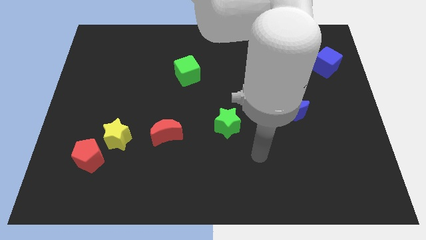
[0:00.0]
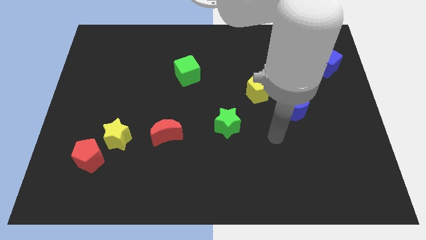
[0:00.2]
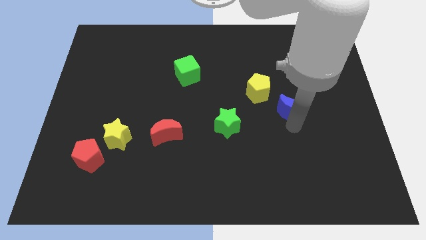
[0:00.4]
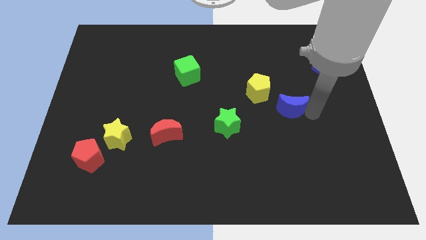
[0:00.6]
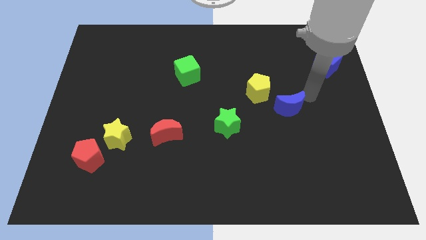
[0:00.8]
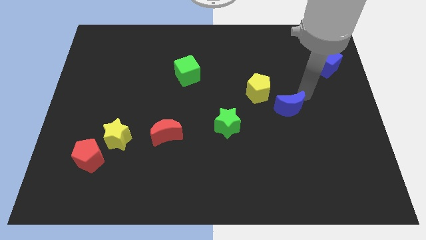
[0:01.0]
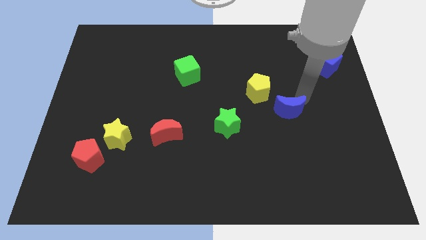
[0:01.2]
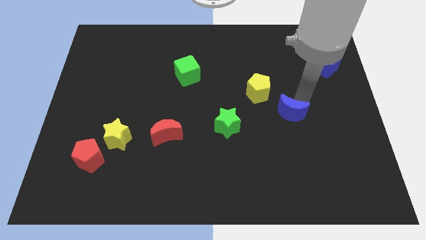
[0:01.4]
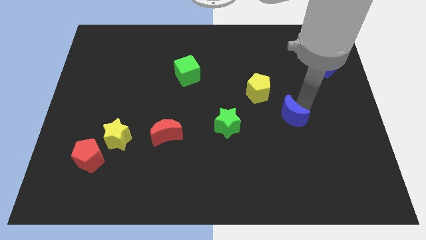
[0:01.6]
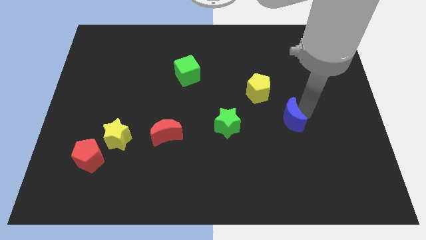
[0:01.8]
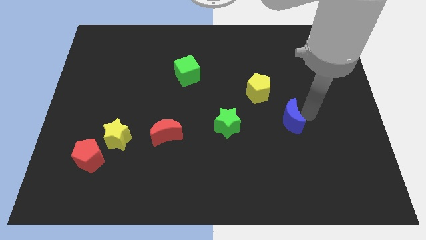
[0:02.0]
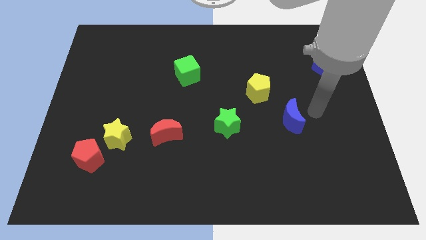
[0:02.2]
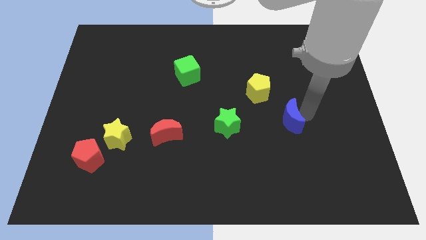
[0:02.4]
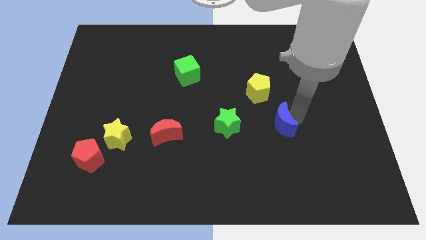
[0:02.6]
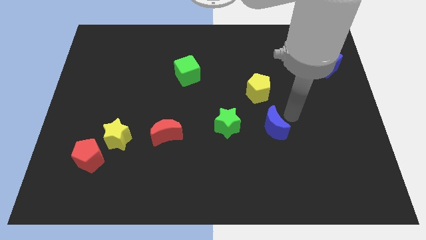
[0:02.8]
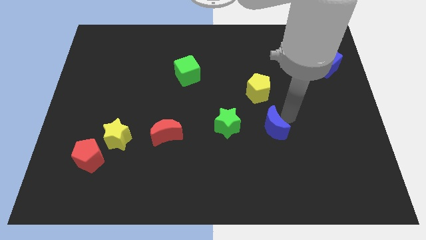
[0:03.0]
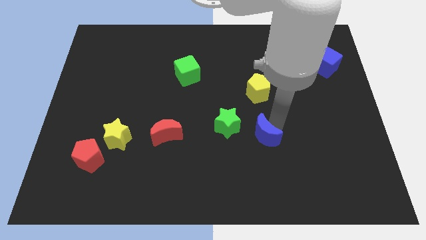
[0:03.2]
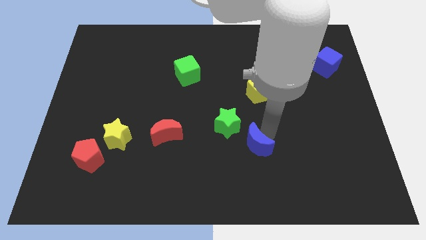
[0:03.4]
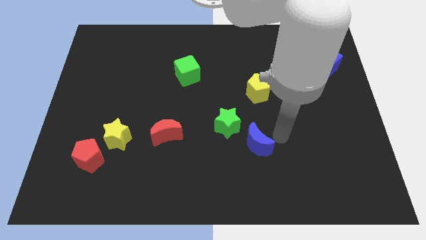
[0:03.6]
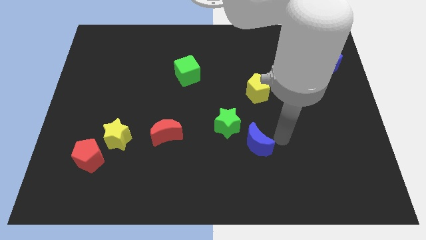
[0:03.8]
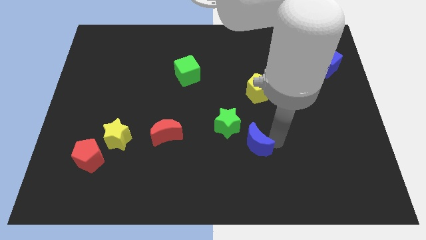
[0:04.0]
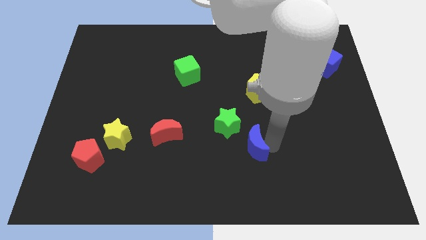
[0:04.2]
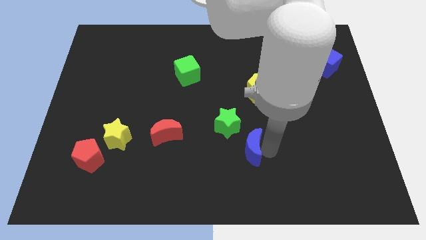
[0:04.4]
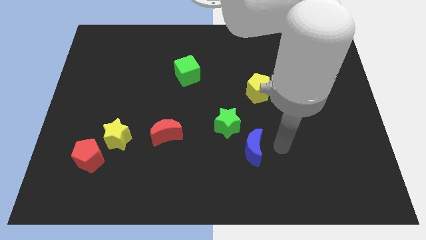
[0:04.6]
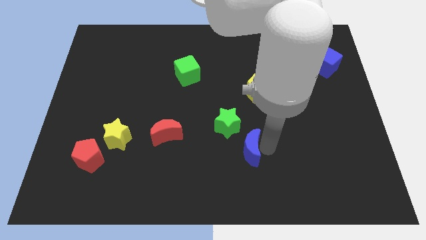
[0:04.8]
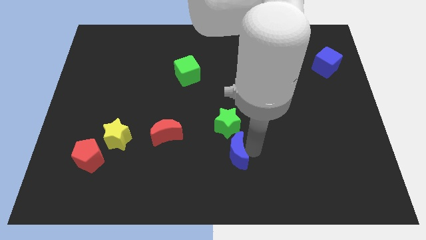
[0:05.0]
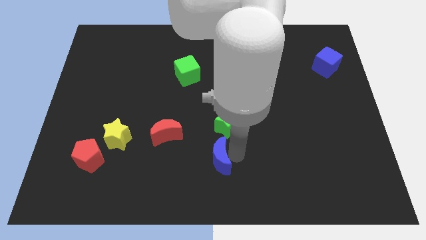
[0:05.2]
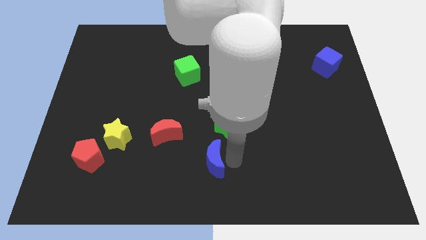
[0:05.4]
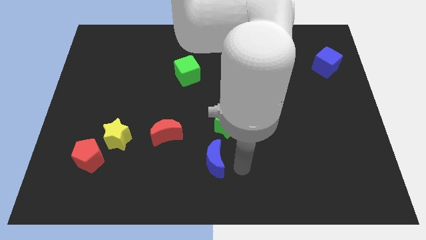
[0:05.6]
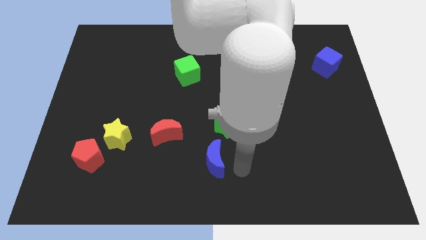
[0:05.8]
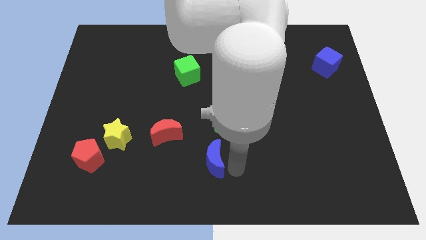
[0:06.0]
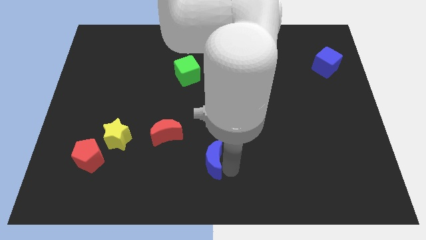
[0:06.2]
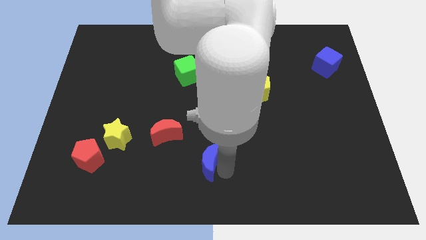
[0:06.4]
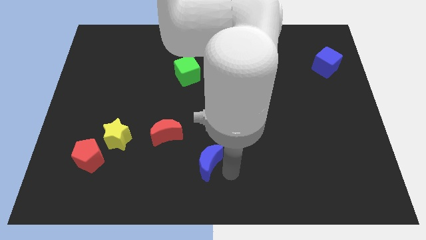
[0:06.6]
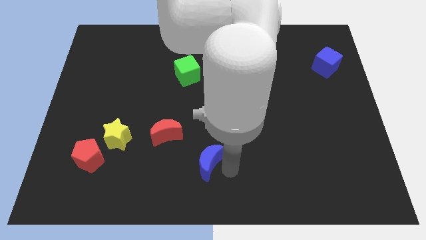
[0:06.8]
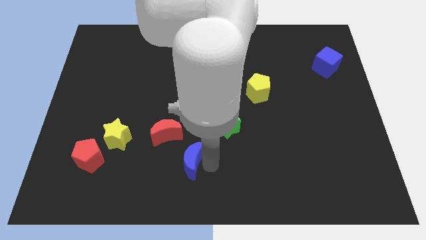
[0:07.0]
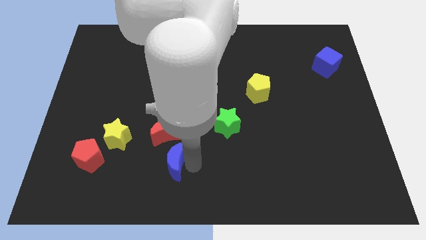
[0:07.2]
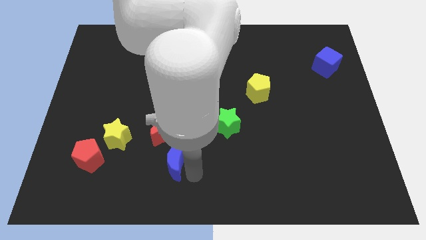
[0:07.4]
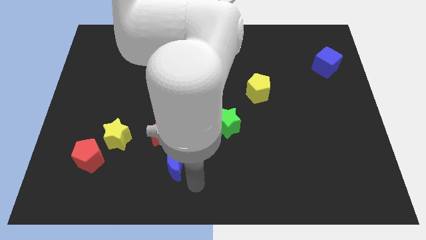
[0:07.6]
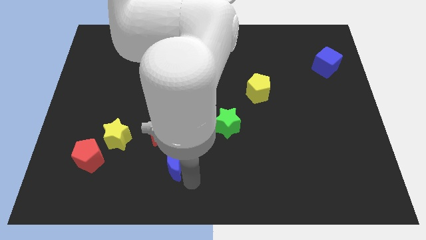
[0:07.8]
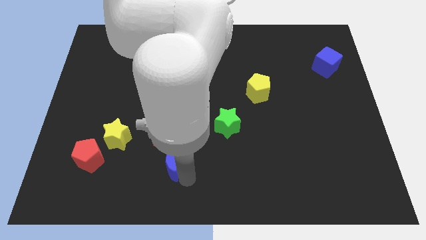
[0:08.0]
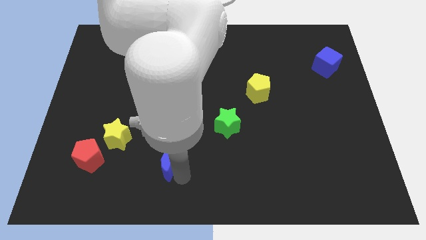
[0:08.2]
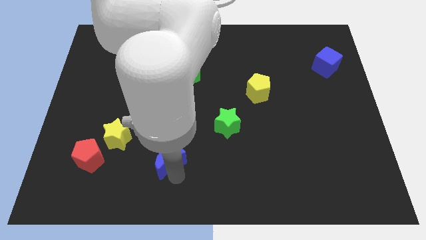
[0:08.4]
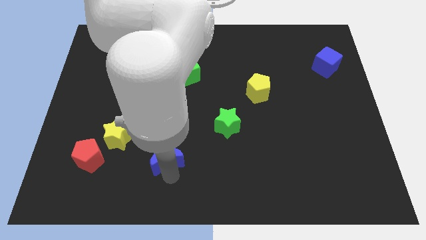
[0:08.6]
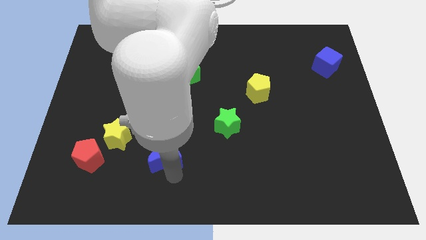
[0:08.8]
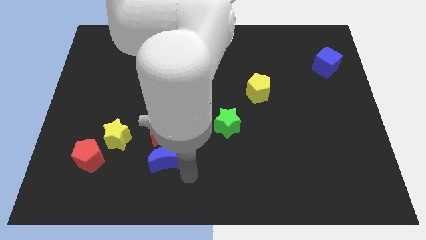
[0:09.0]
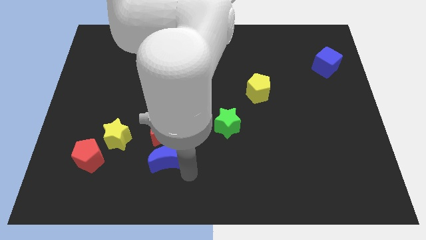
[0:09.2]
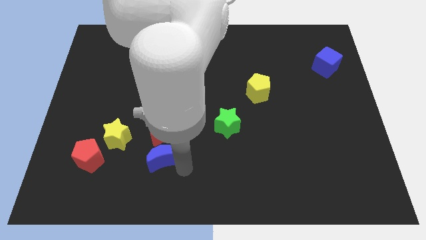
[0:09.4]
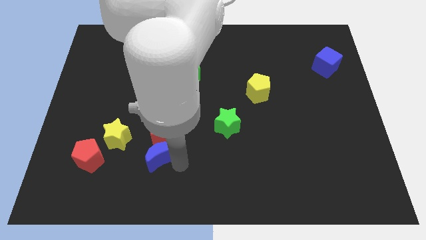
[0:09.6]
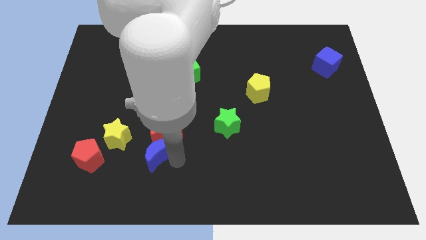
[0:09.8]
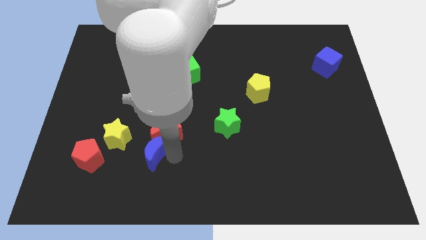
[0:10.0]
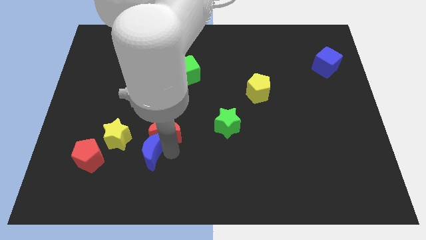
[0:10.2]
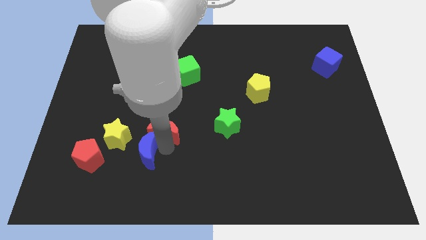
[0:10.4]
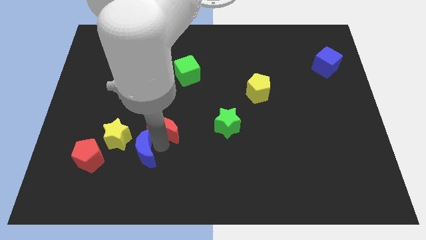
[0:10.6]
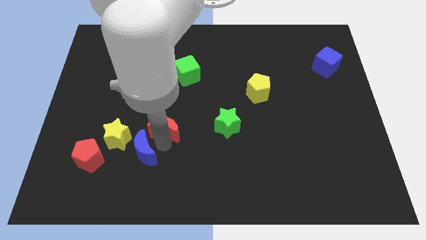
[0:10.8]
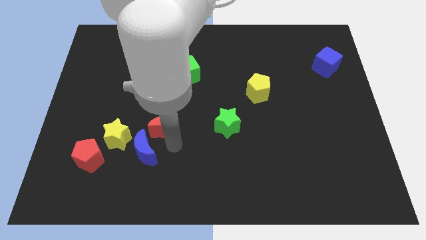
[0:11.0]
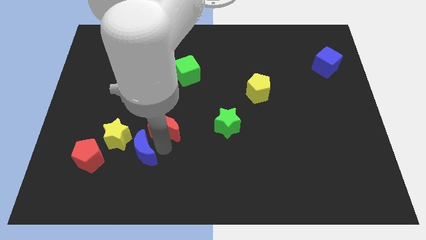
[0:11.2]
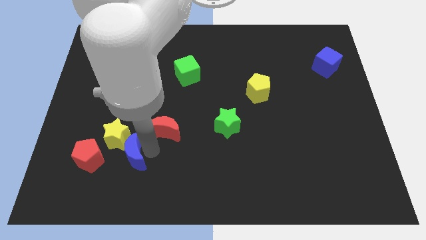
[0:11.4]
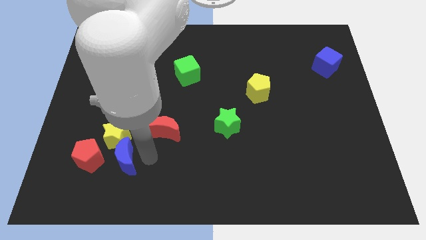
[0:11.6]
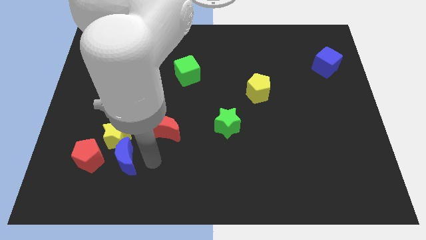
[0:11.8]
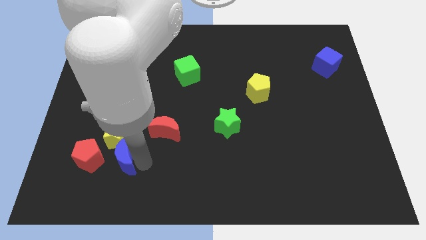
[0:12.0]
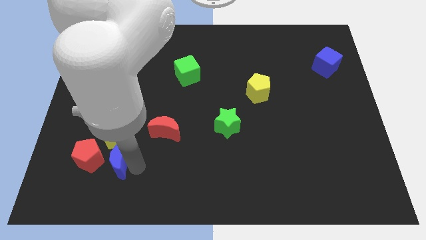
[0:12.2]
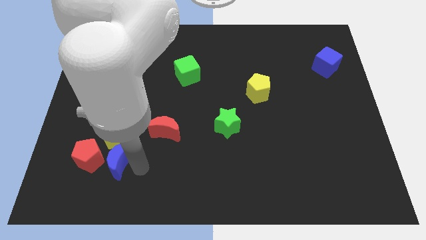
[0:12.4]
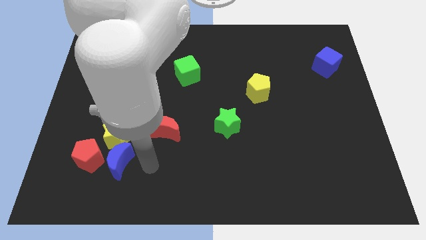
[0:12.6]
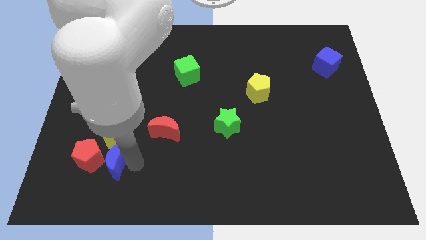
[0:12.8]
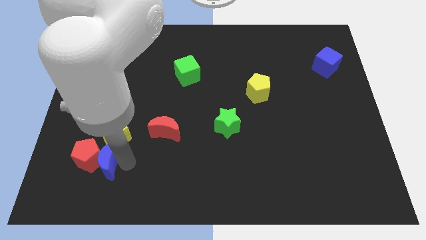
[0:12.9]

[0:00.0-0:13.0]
put the blue moon next to the red pentagon

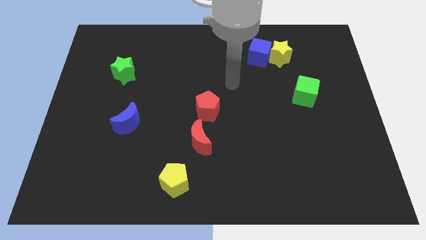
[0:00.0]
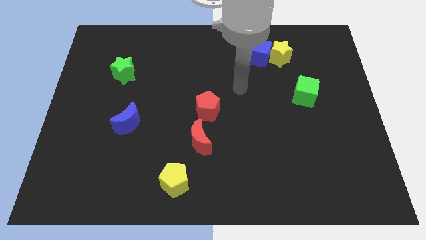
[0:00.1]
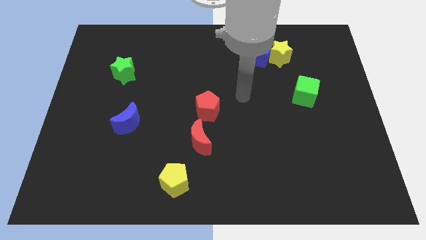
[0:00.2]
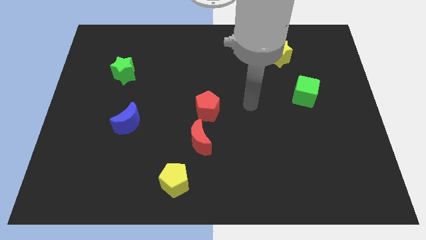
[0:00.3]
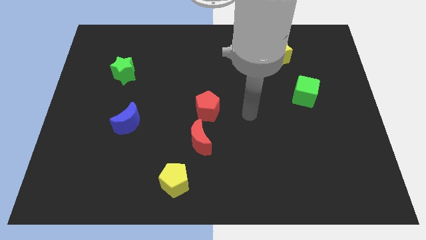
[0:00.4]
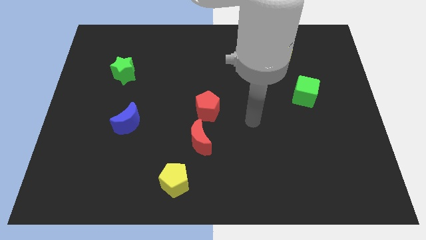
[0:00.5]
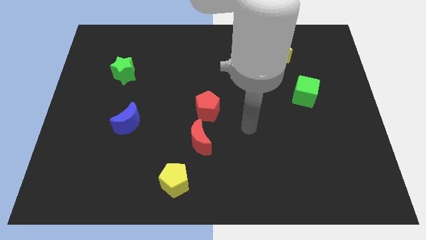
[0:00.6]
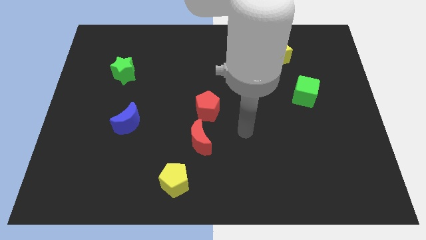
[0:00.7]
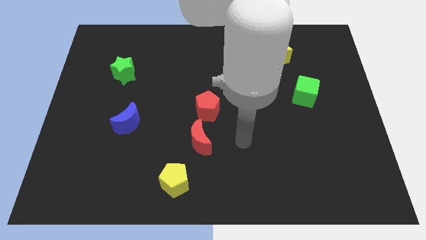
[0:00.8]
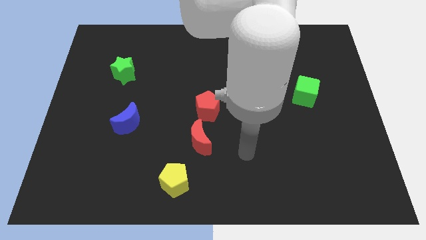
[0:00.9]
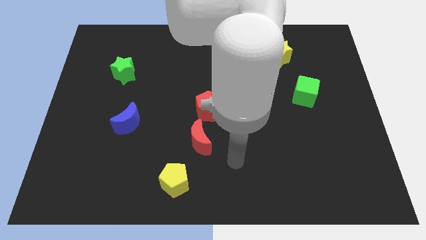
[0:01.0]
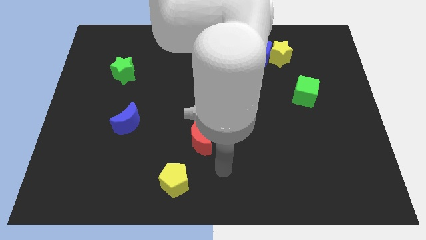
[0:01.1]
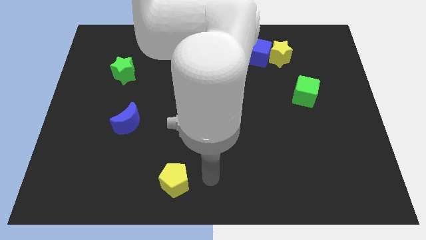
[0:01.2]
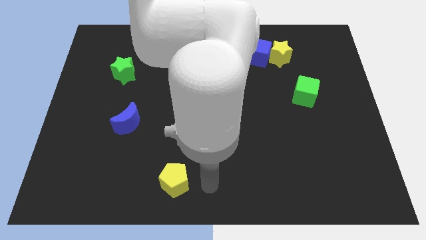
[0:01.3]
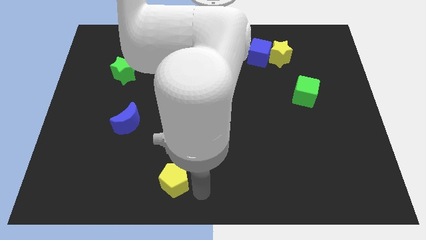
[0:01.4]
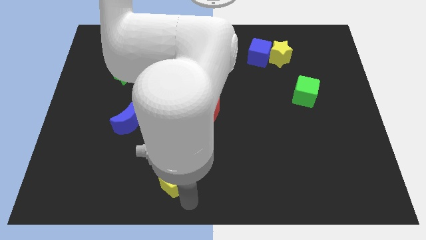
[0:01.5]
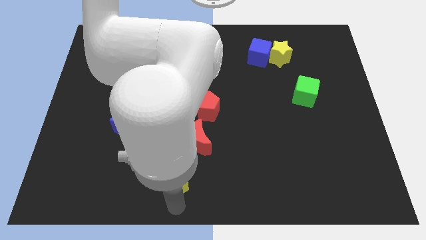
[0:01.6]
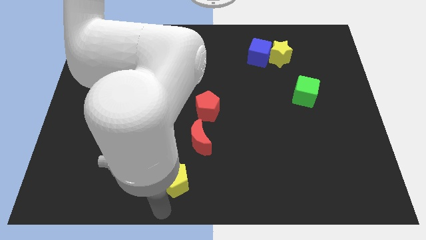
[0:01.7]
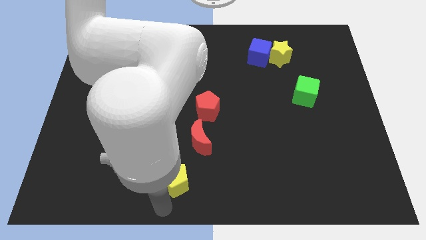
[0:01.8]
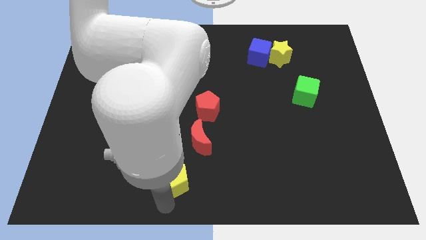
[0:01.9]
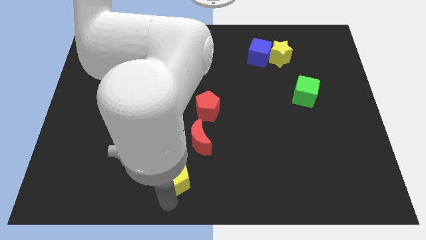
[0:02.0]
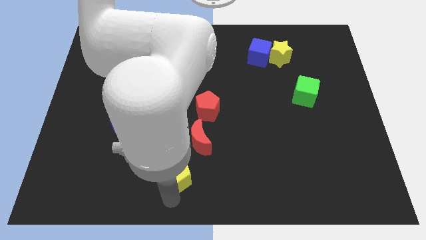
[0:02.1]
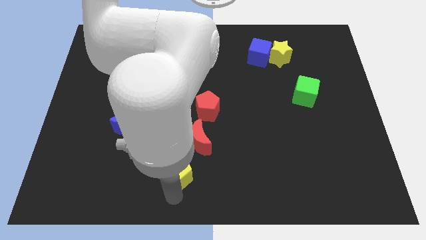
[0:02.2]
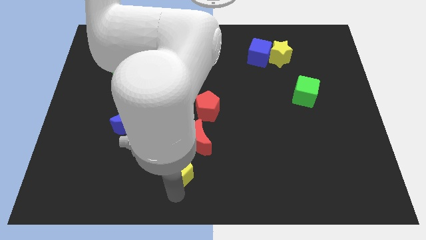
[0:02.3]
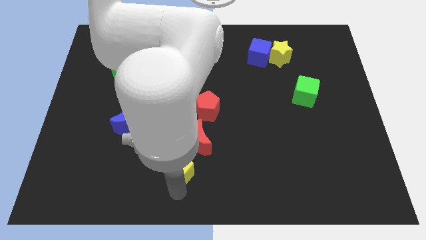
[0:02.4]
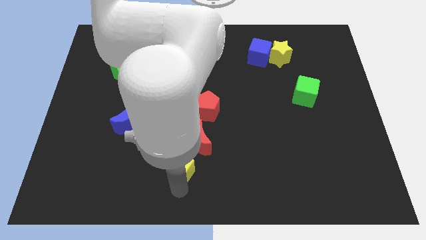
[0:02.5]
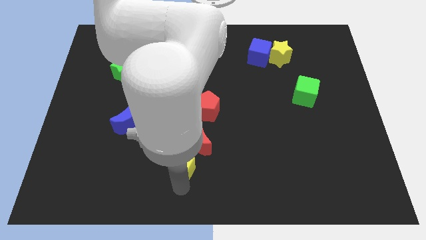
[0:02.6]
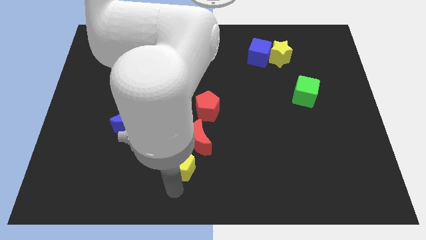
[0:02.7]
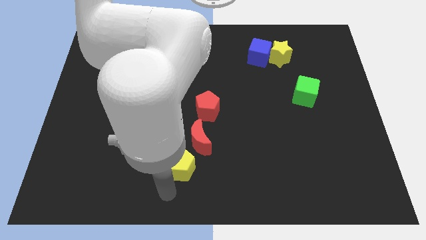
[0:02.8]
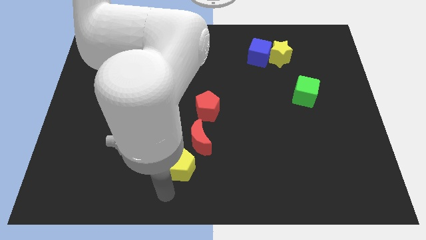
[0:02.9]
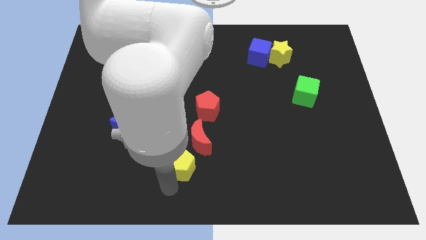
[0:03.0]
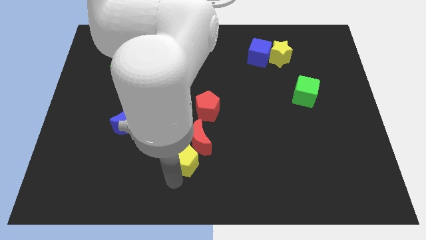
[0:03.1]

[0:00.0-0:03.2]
put the yellow pentagon next to the red moon
